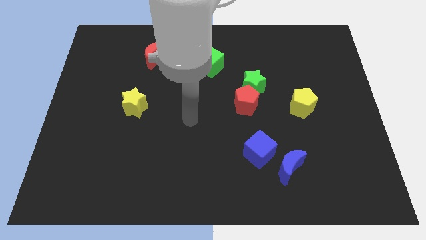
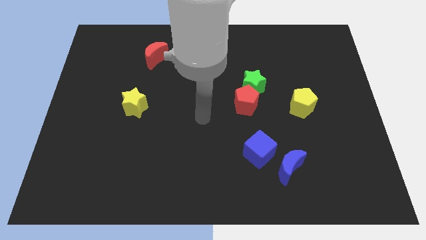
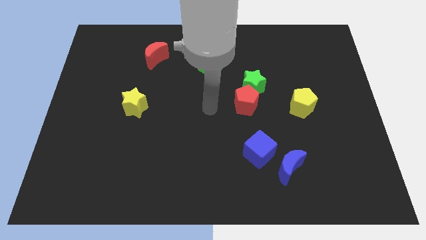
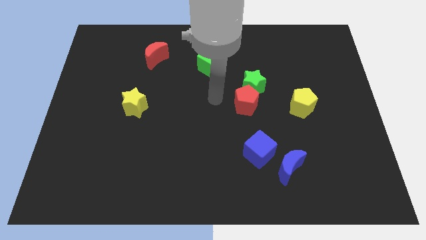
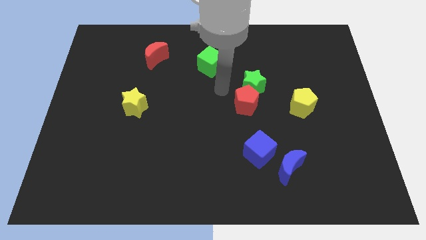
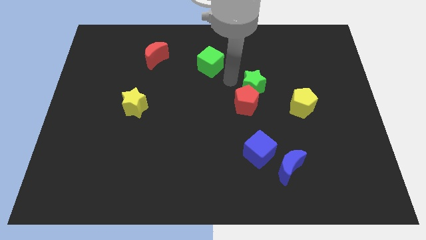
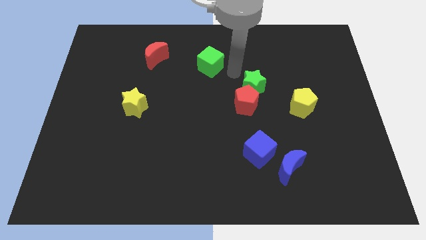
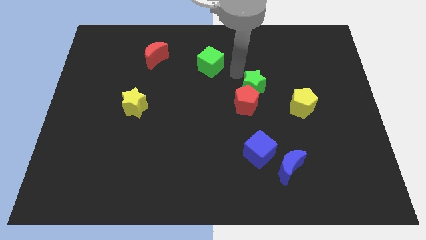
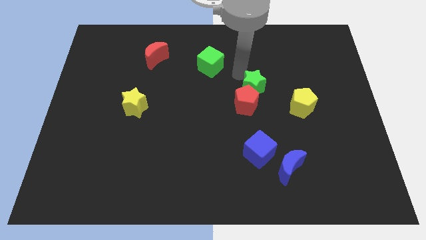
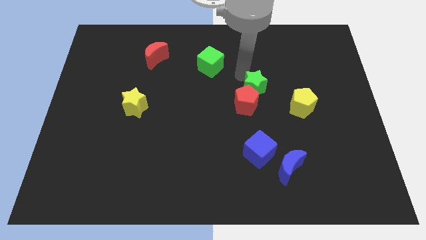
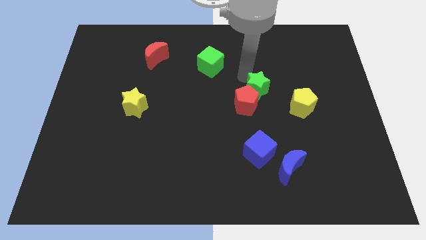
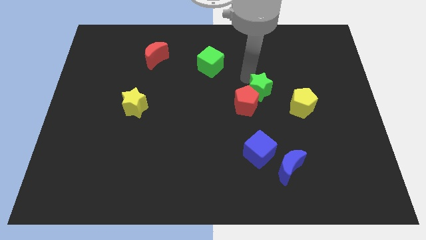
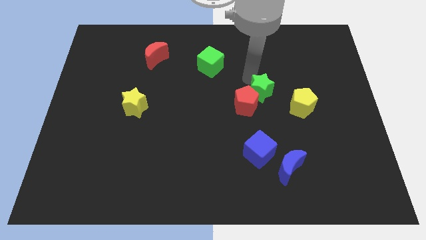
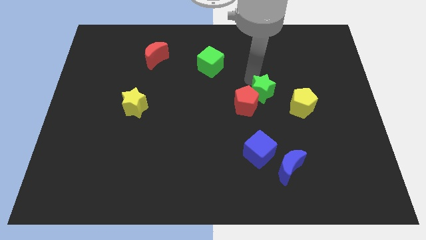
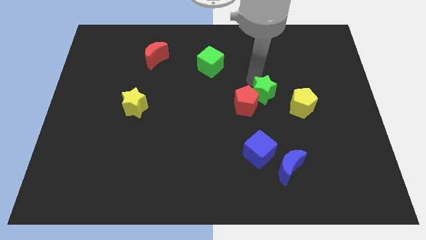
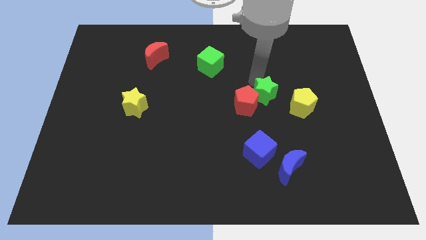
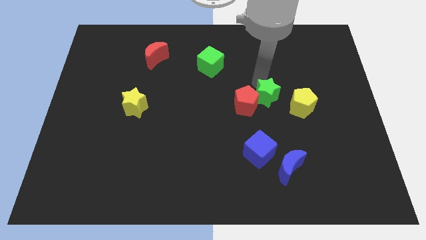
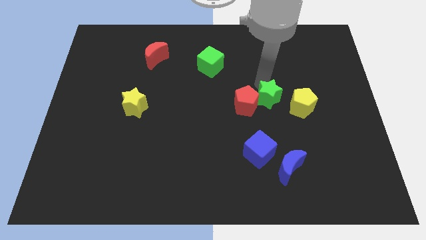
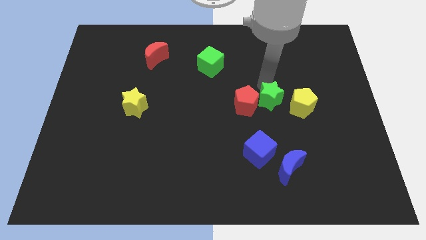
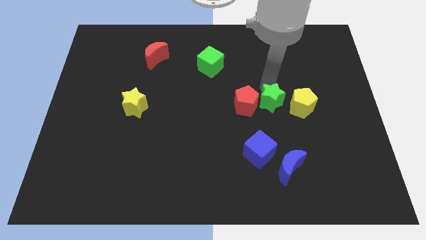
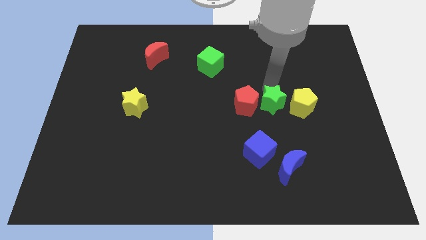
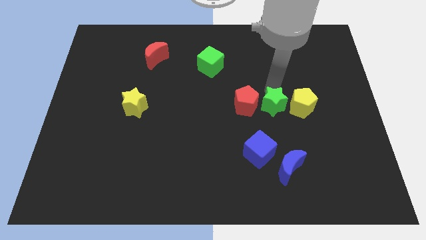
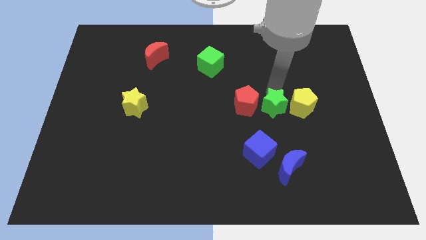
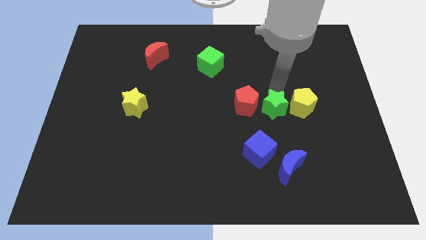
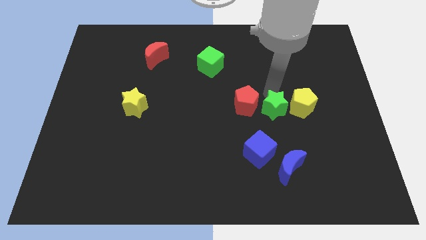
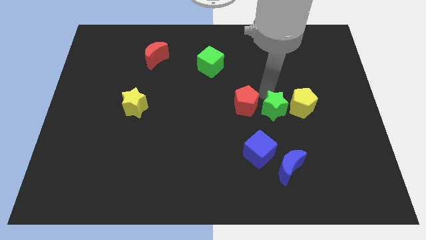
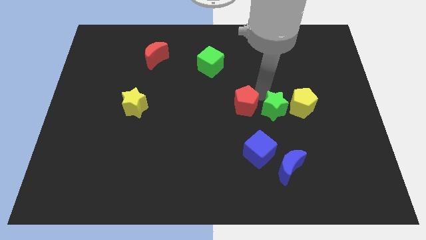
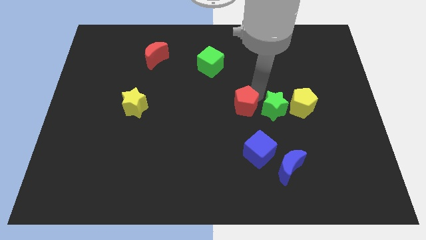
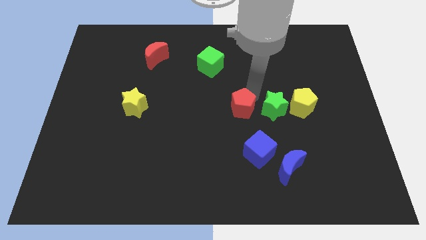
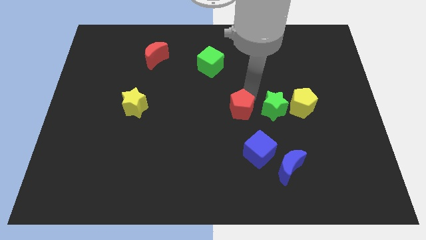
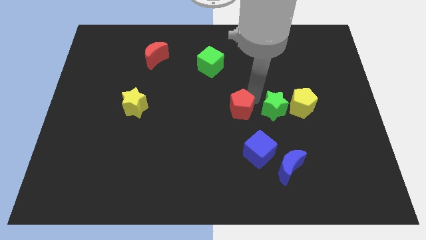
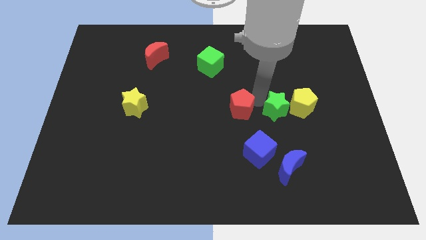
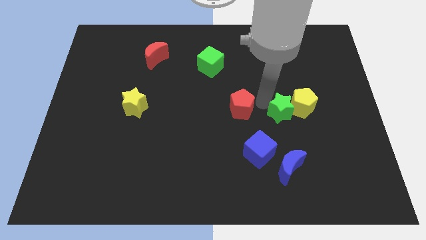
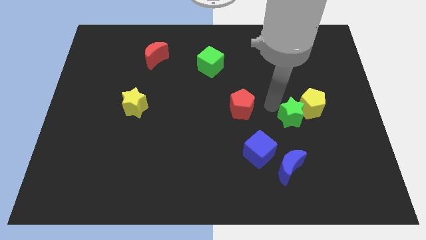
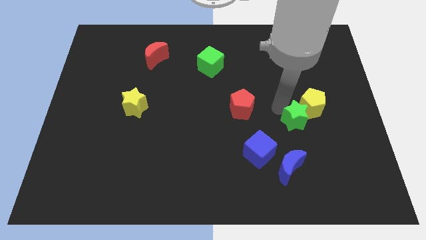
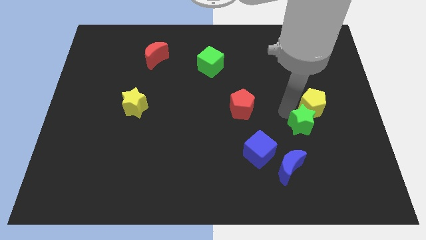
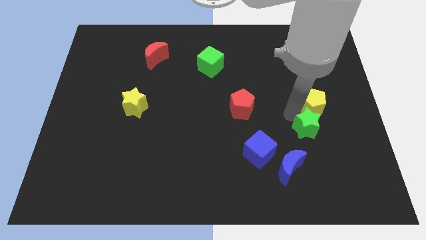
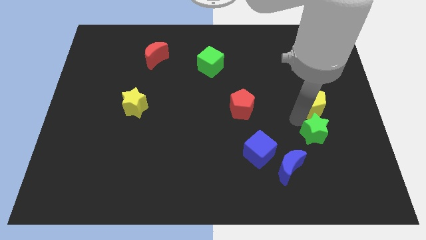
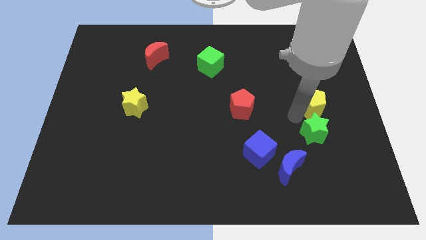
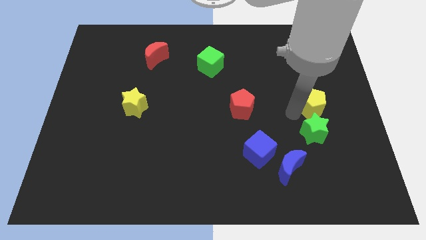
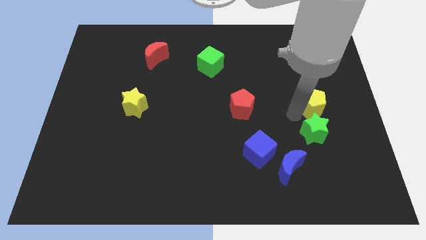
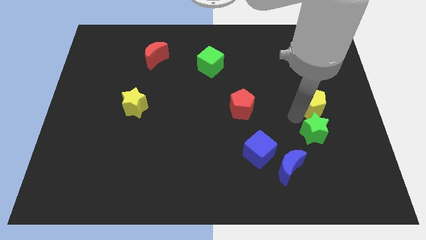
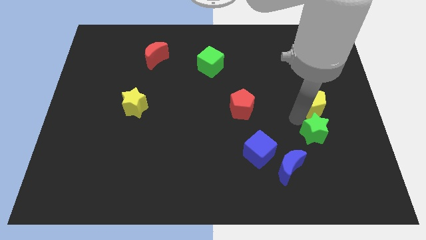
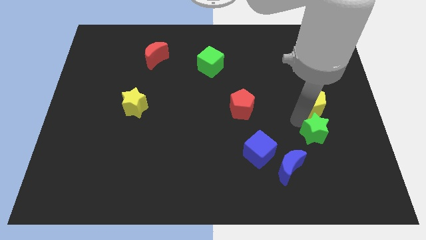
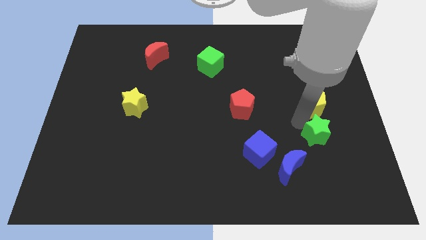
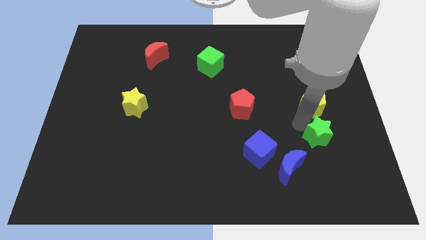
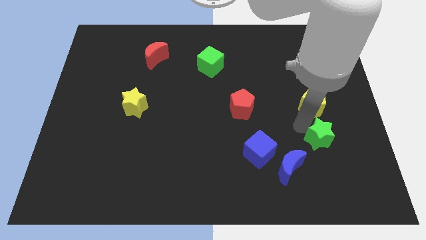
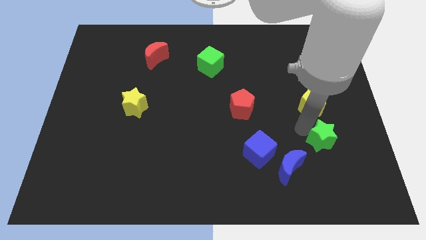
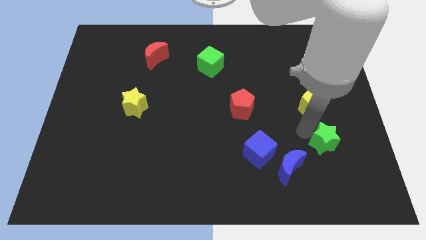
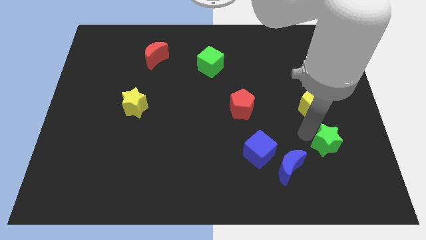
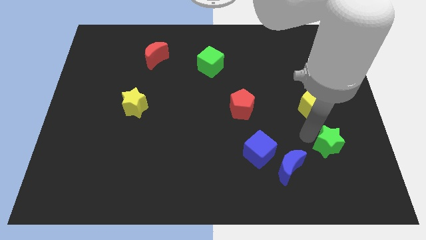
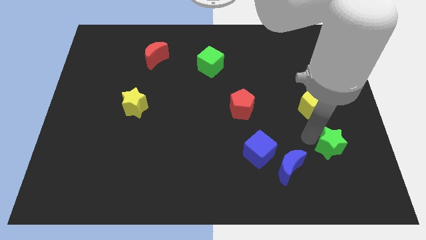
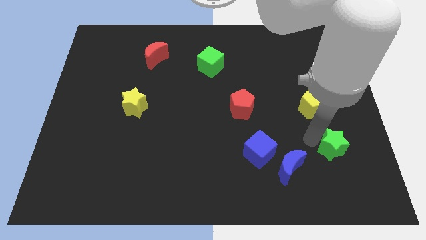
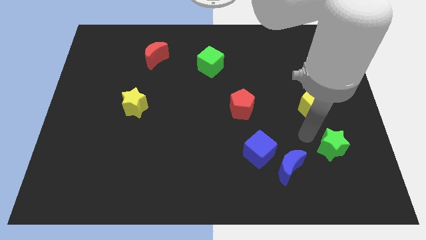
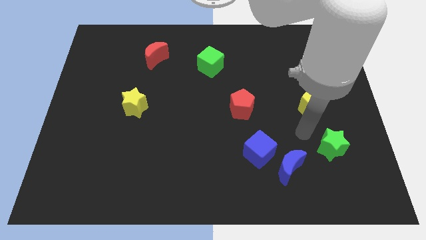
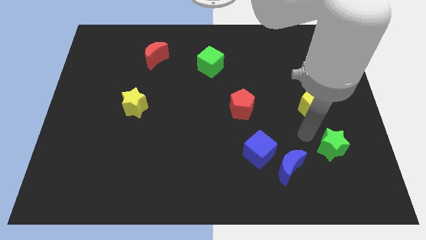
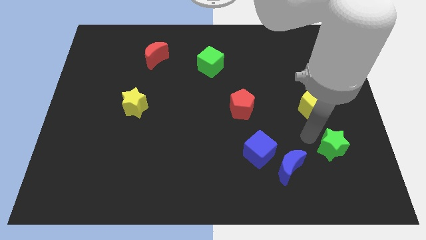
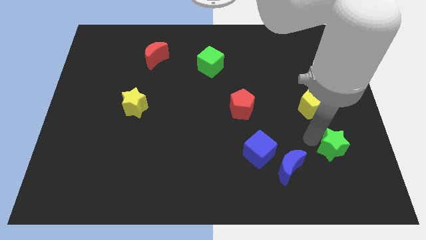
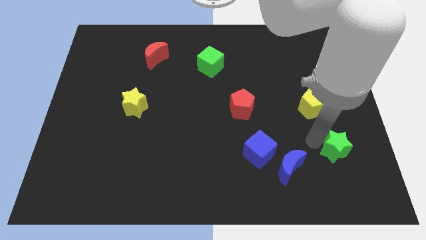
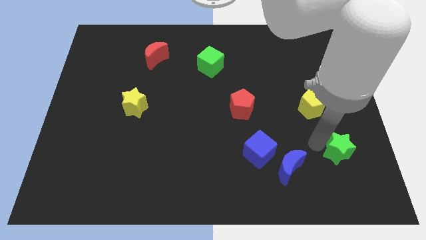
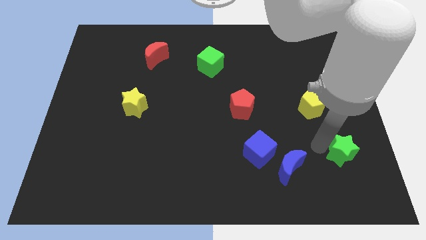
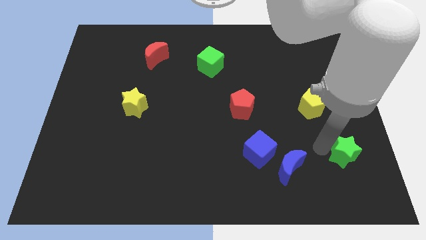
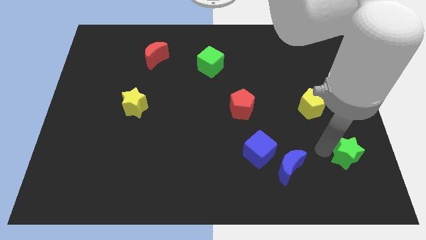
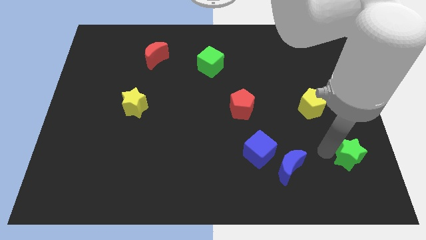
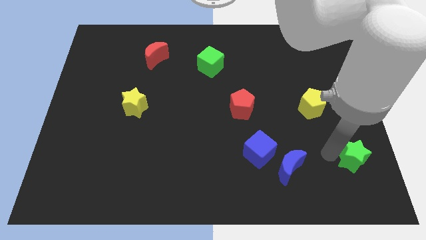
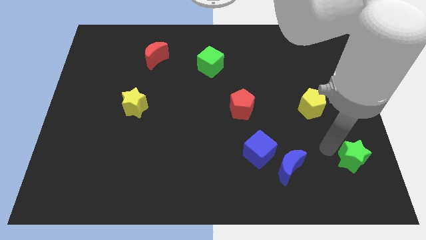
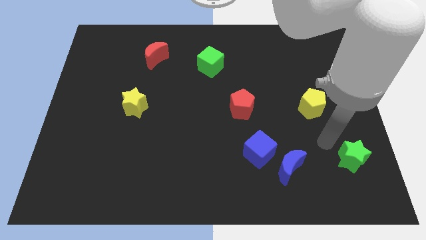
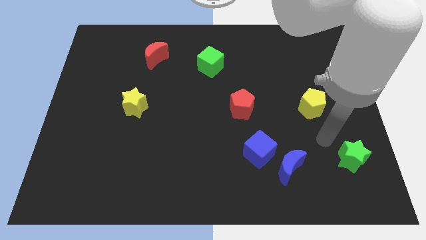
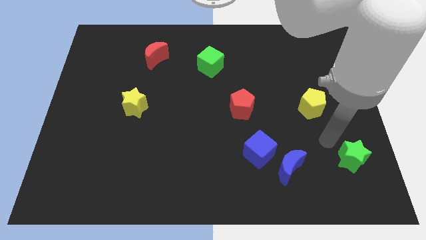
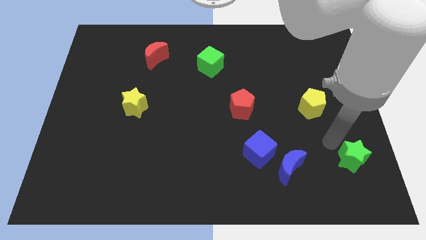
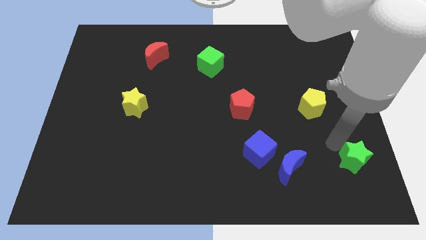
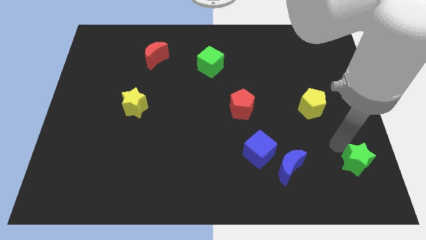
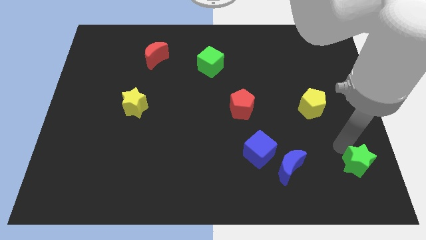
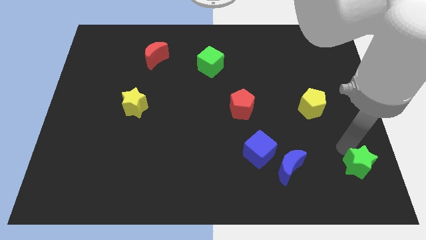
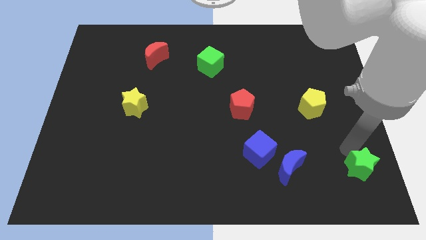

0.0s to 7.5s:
move the green star to the bottom right corner
